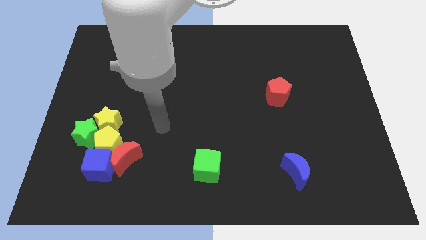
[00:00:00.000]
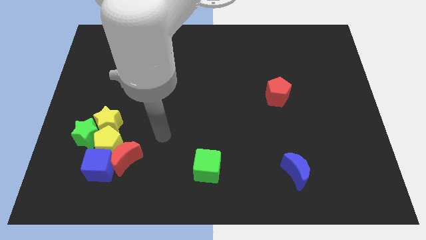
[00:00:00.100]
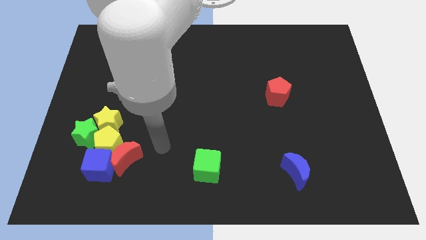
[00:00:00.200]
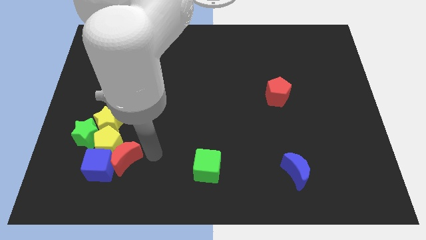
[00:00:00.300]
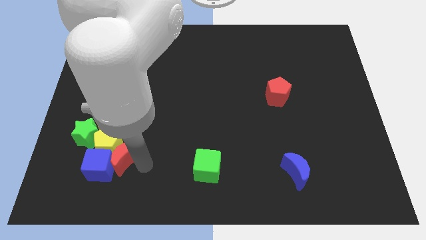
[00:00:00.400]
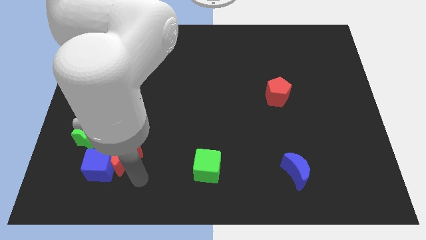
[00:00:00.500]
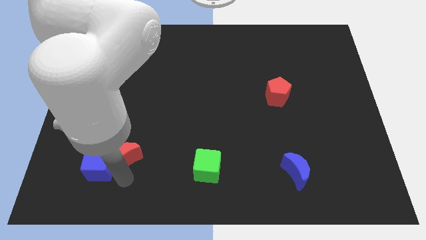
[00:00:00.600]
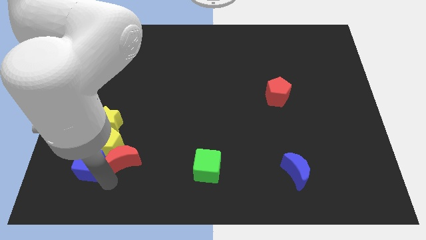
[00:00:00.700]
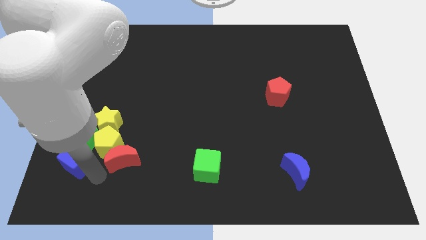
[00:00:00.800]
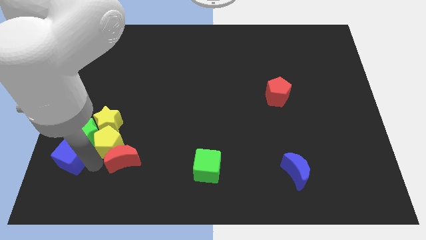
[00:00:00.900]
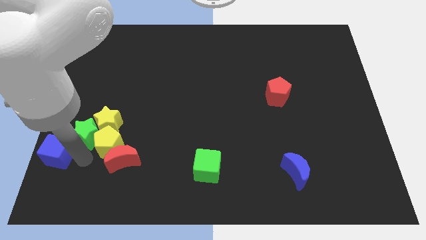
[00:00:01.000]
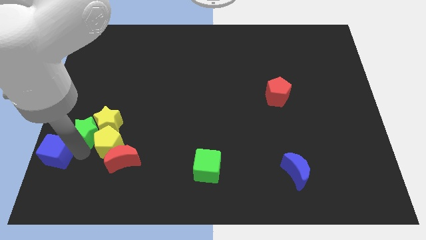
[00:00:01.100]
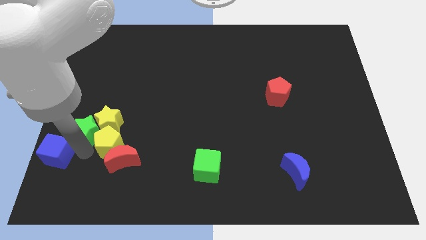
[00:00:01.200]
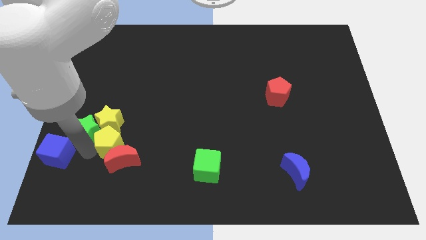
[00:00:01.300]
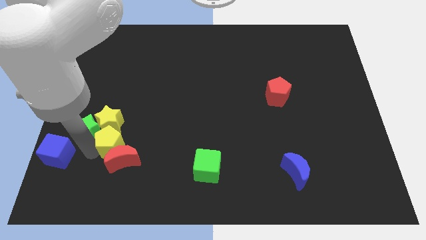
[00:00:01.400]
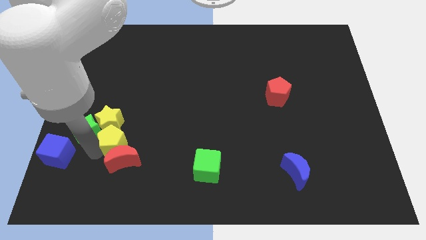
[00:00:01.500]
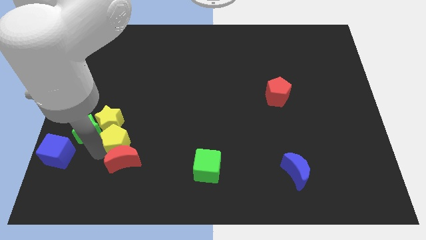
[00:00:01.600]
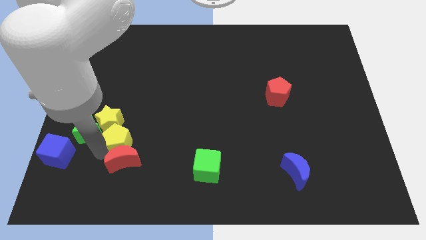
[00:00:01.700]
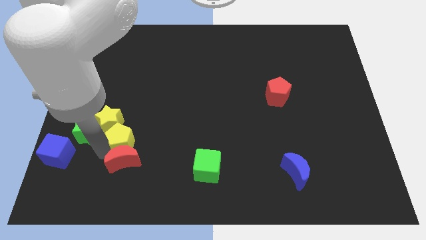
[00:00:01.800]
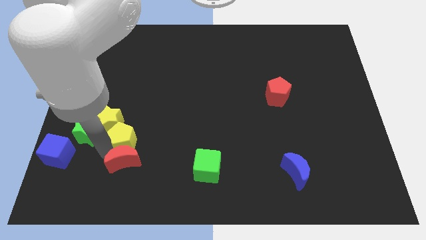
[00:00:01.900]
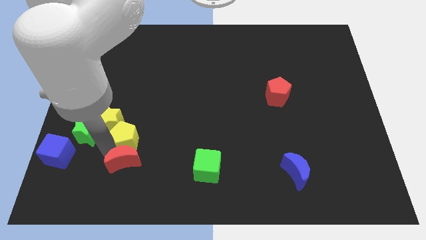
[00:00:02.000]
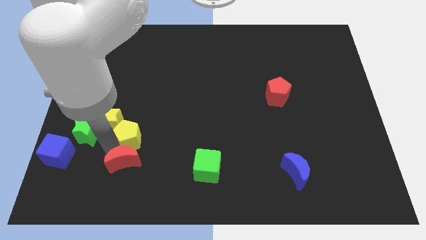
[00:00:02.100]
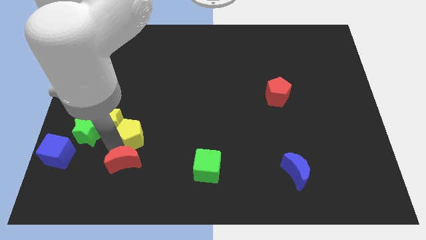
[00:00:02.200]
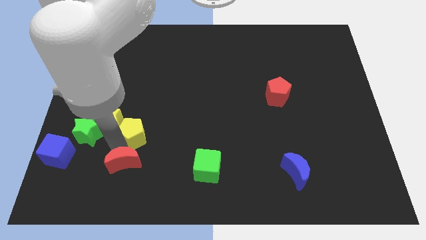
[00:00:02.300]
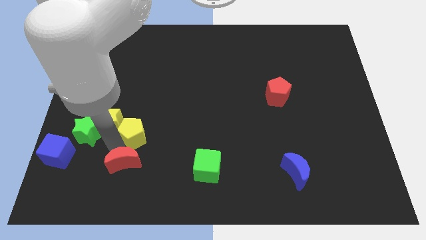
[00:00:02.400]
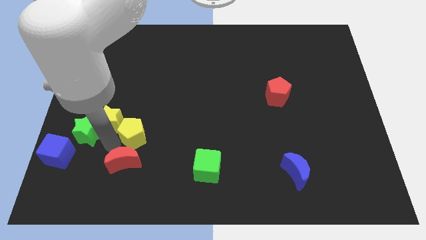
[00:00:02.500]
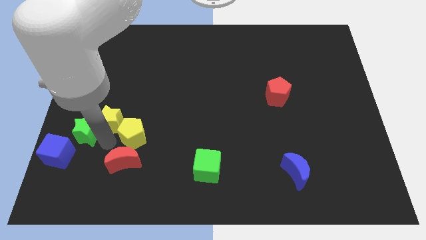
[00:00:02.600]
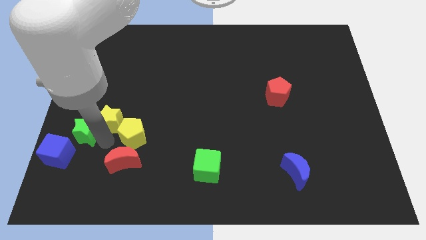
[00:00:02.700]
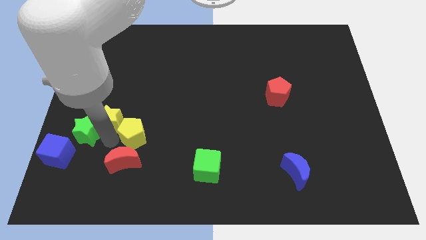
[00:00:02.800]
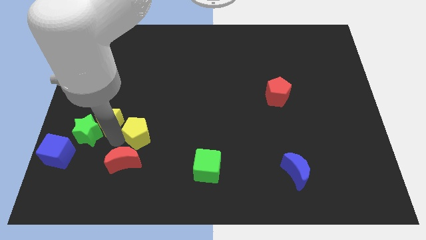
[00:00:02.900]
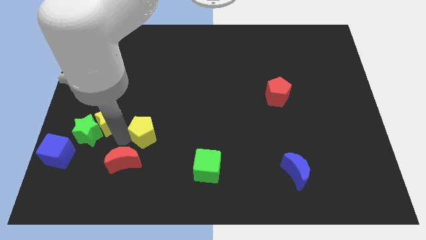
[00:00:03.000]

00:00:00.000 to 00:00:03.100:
separate the yellow pentagon from the group

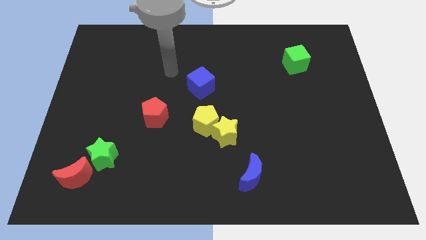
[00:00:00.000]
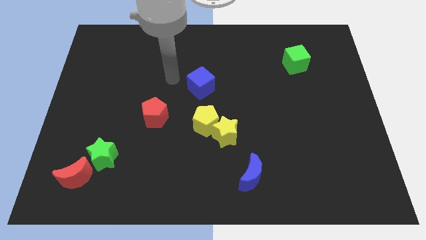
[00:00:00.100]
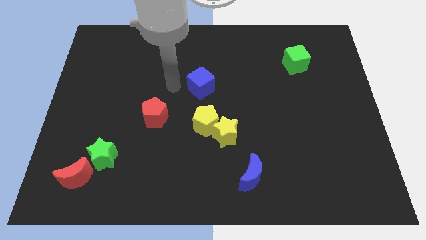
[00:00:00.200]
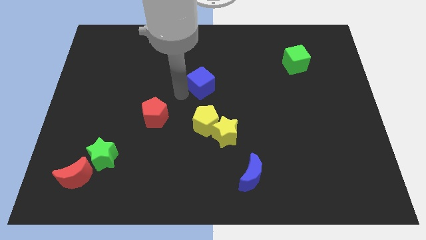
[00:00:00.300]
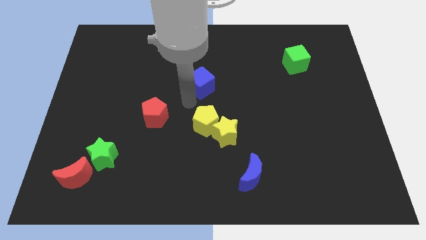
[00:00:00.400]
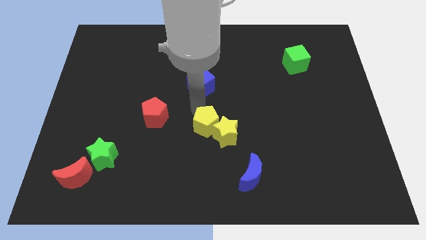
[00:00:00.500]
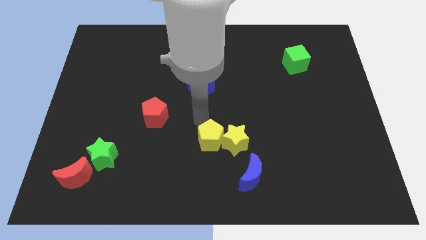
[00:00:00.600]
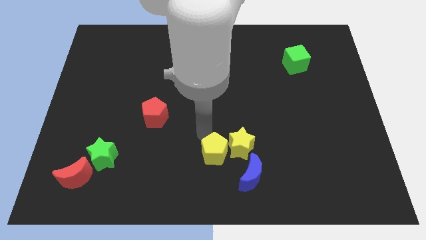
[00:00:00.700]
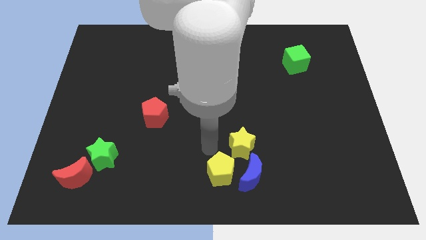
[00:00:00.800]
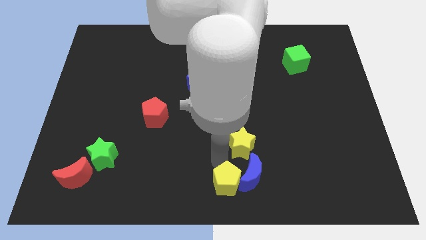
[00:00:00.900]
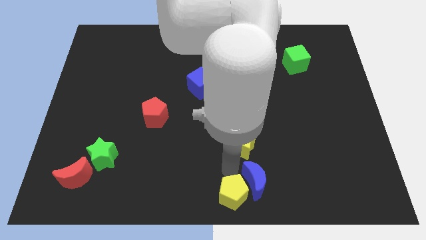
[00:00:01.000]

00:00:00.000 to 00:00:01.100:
pull the yellow star apart from the yellow pentagon

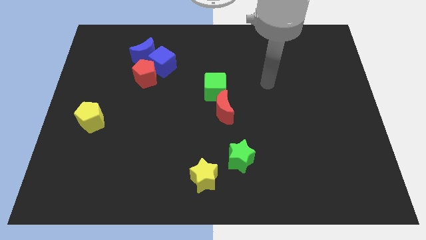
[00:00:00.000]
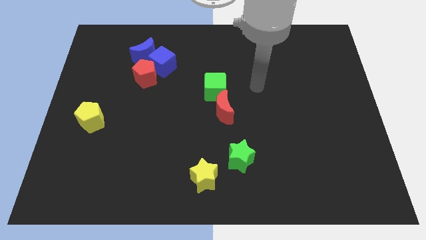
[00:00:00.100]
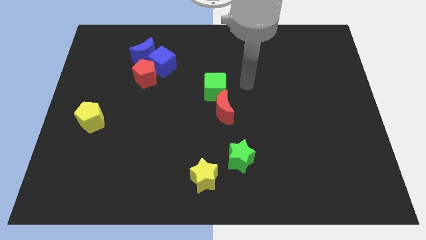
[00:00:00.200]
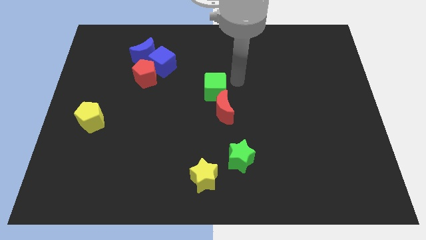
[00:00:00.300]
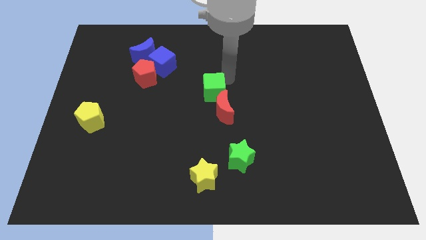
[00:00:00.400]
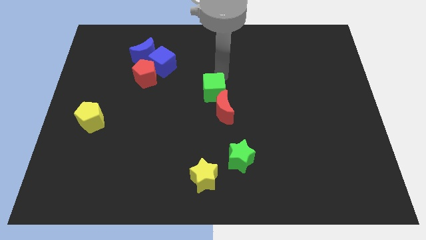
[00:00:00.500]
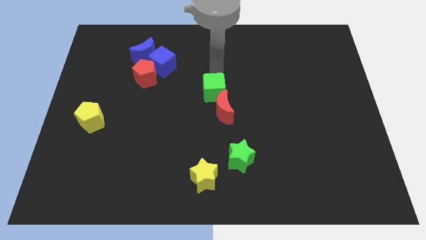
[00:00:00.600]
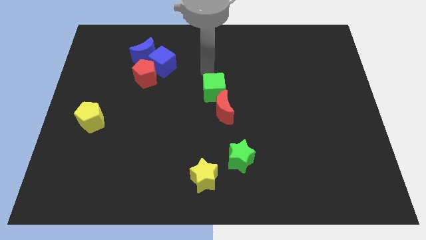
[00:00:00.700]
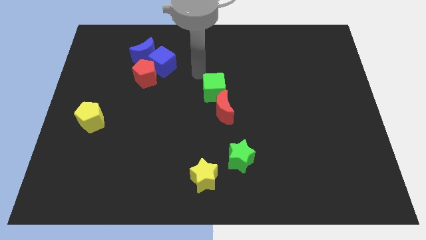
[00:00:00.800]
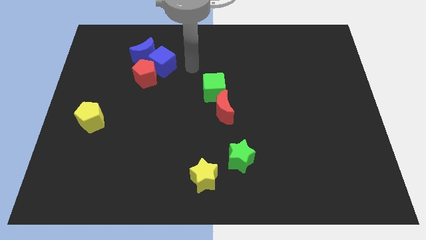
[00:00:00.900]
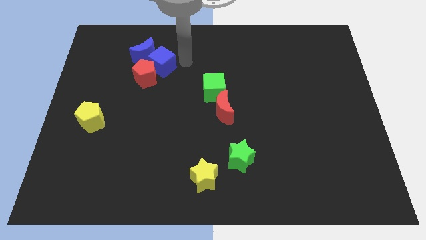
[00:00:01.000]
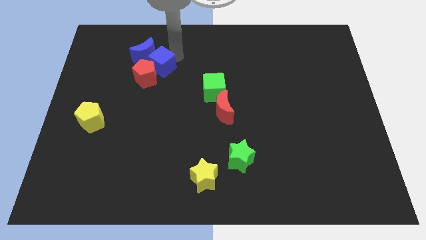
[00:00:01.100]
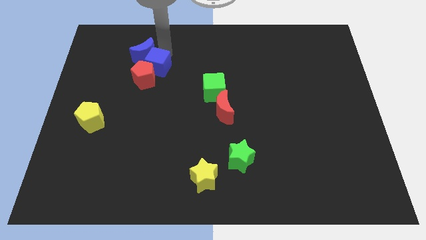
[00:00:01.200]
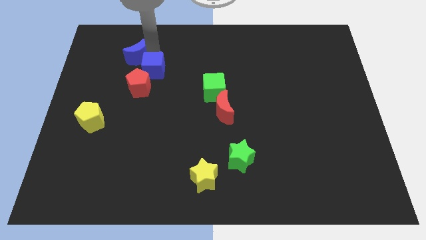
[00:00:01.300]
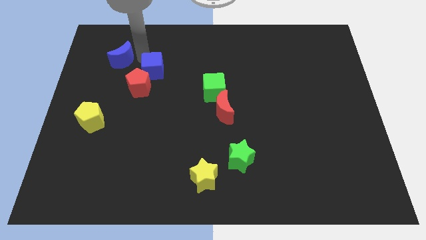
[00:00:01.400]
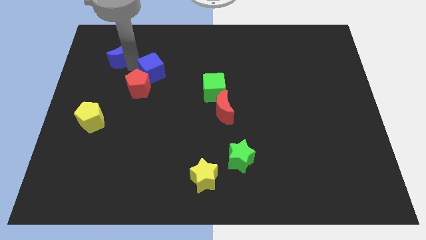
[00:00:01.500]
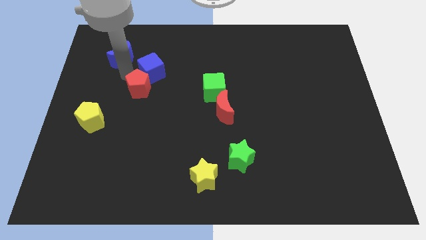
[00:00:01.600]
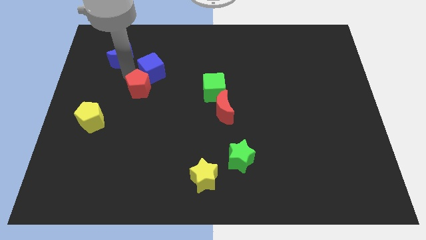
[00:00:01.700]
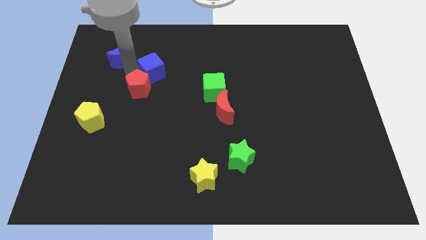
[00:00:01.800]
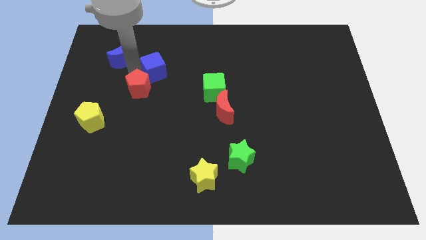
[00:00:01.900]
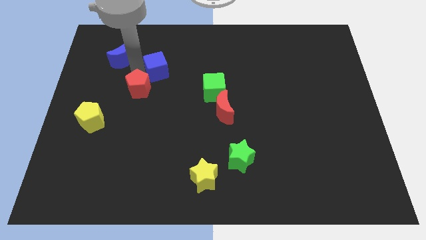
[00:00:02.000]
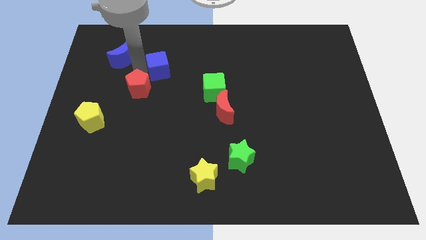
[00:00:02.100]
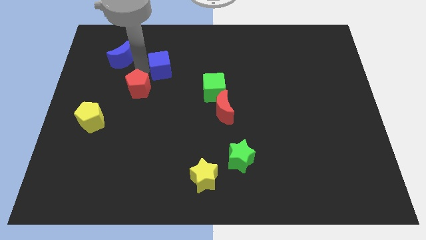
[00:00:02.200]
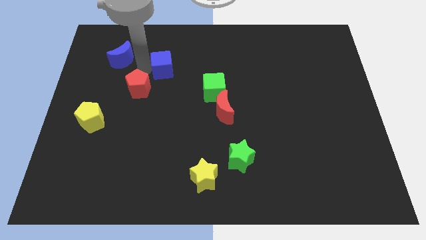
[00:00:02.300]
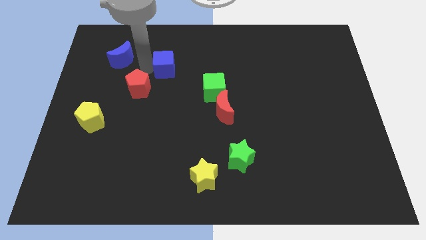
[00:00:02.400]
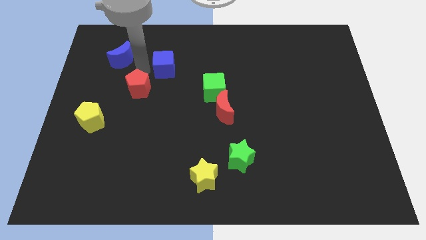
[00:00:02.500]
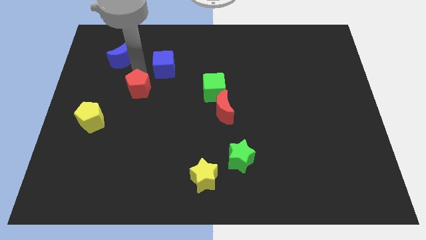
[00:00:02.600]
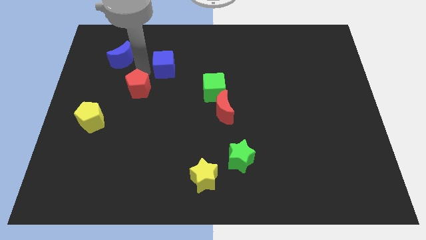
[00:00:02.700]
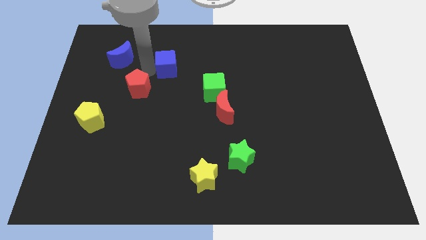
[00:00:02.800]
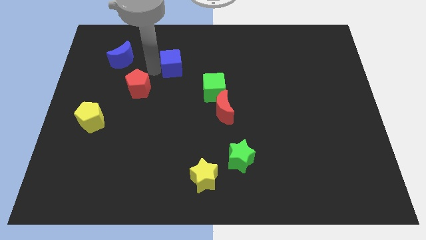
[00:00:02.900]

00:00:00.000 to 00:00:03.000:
separate the blue cube from the red pentagon and blue moon

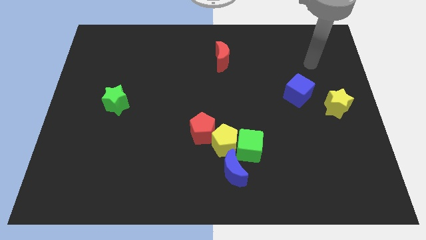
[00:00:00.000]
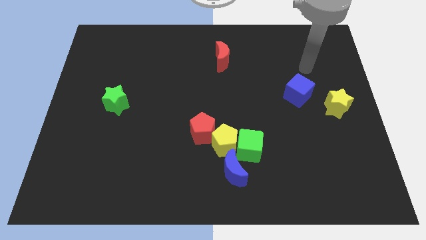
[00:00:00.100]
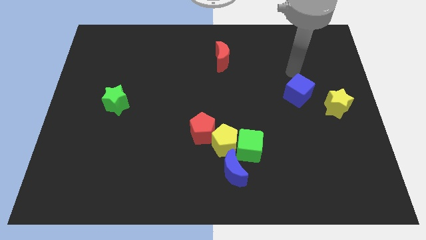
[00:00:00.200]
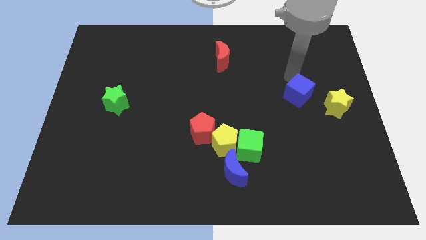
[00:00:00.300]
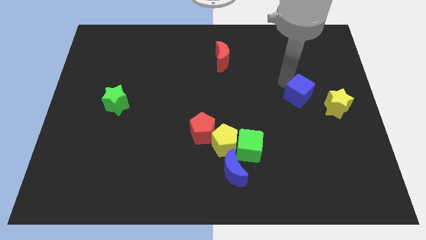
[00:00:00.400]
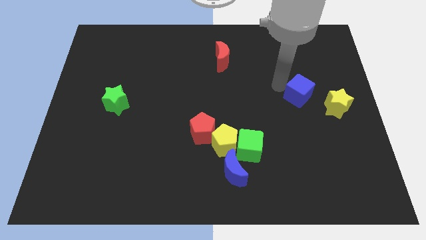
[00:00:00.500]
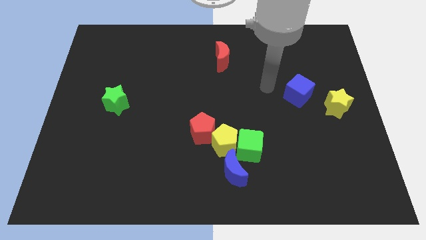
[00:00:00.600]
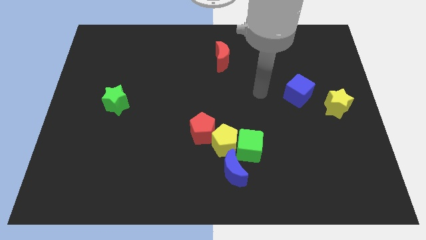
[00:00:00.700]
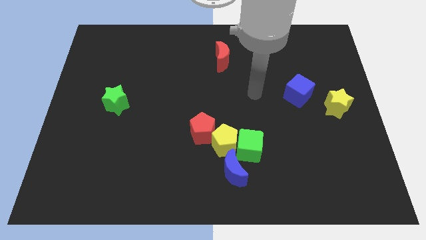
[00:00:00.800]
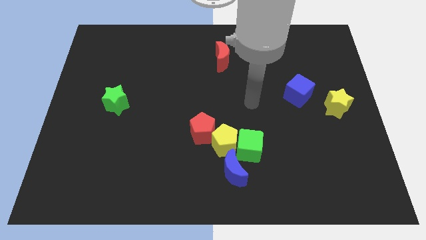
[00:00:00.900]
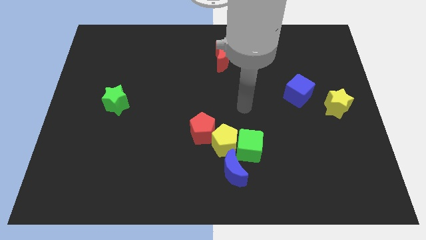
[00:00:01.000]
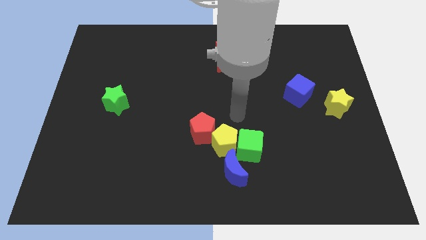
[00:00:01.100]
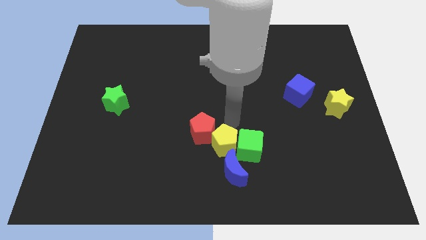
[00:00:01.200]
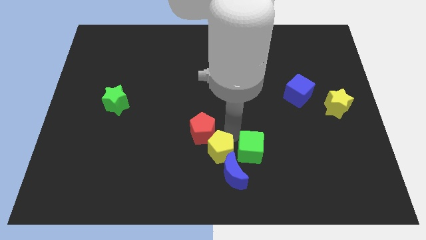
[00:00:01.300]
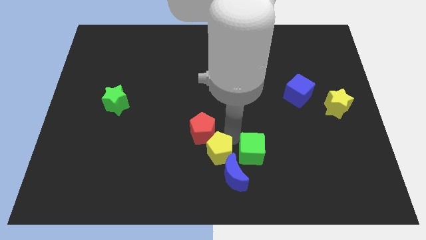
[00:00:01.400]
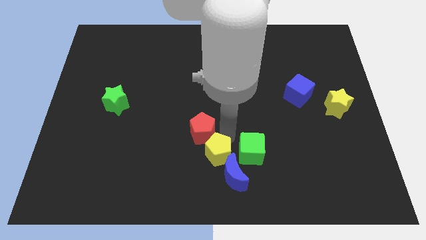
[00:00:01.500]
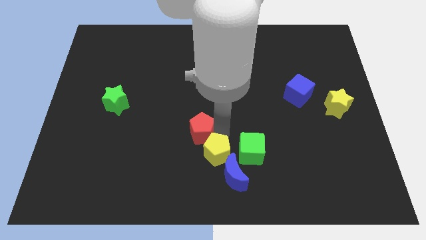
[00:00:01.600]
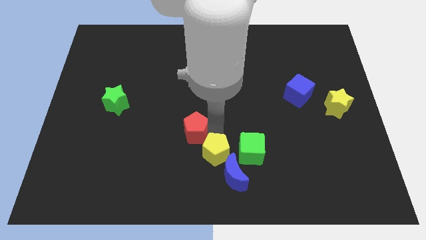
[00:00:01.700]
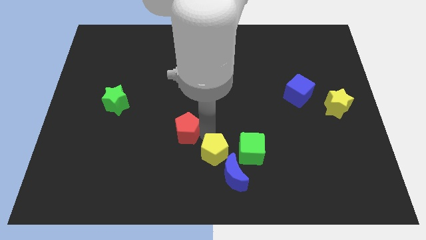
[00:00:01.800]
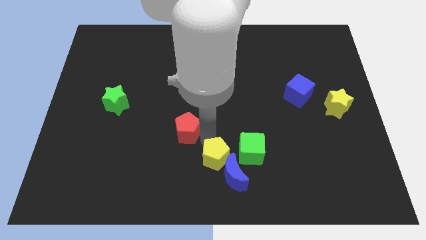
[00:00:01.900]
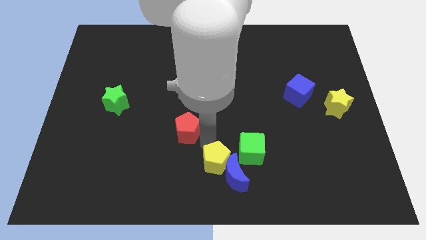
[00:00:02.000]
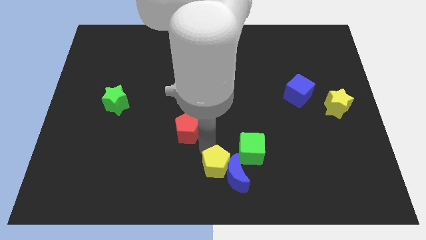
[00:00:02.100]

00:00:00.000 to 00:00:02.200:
move the red pentagon away from the yellow pentagon
